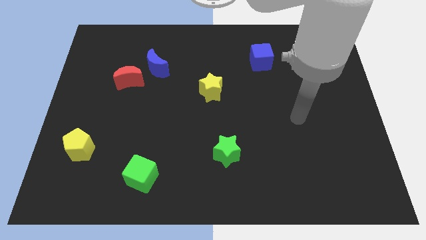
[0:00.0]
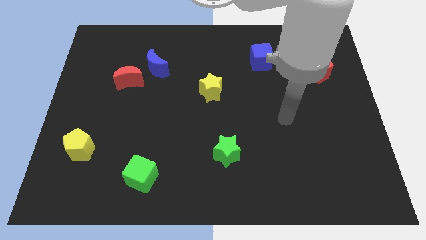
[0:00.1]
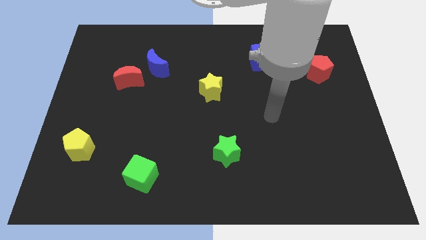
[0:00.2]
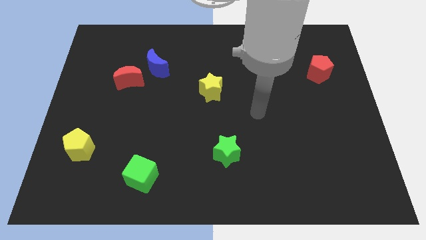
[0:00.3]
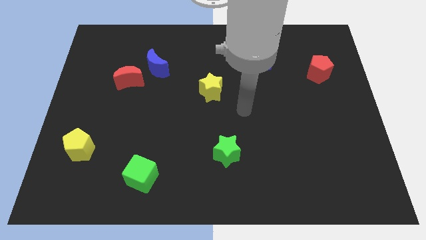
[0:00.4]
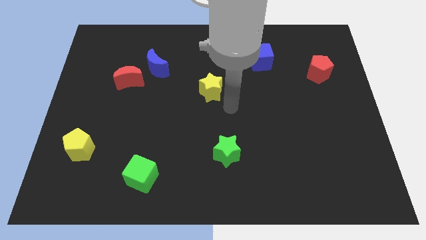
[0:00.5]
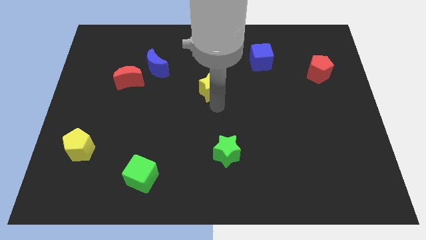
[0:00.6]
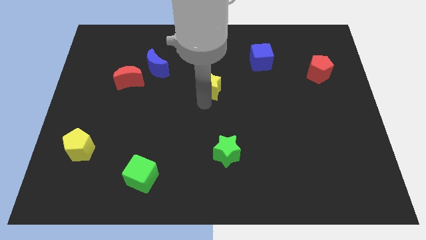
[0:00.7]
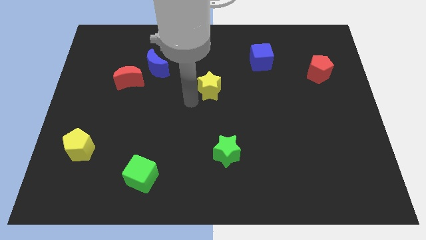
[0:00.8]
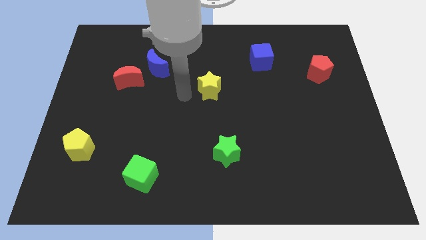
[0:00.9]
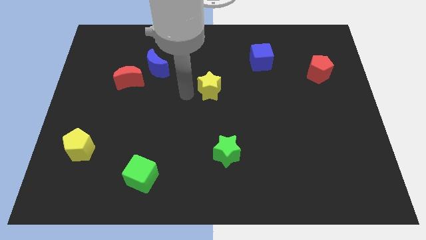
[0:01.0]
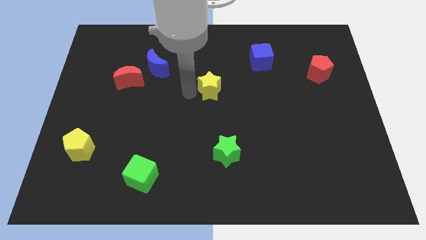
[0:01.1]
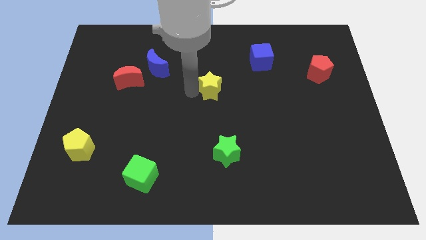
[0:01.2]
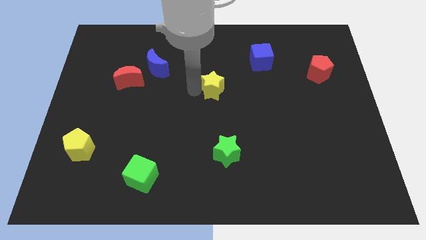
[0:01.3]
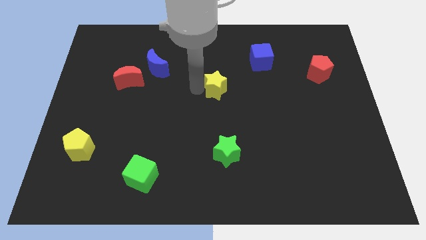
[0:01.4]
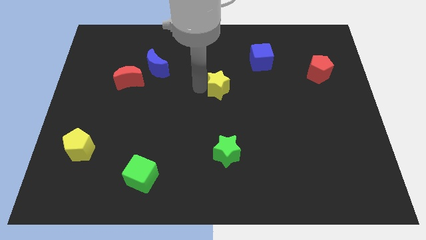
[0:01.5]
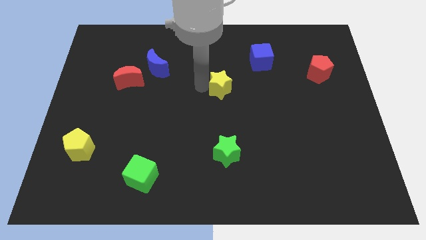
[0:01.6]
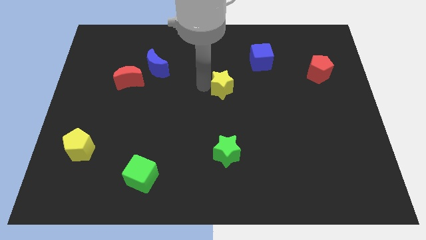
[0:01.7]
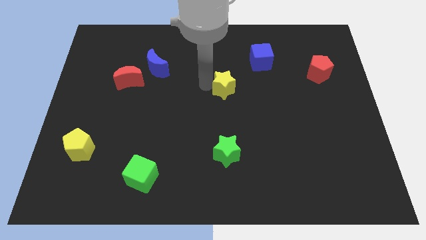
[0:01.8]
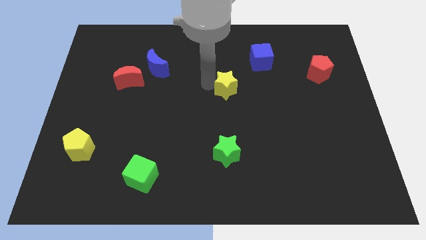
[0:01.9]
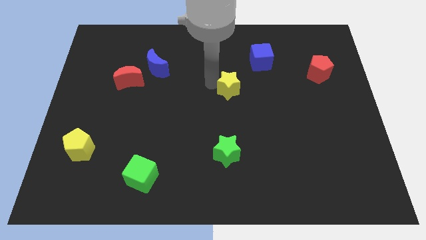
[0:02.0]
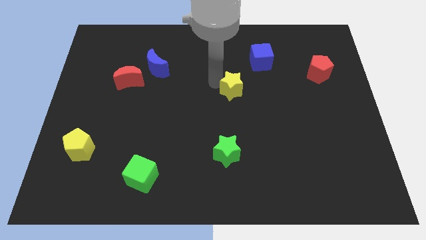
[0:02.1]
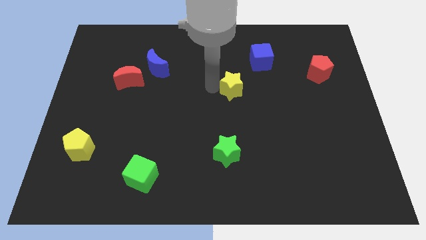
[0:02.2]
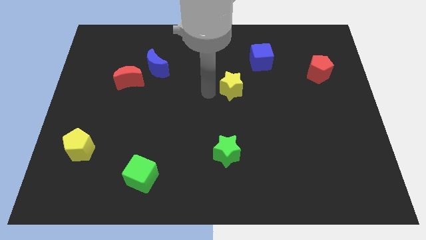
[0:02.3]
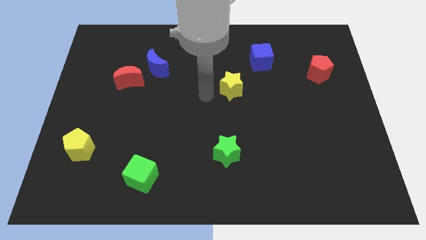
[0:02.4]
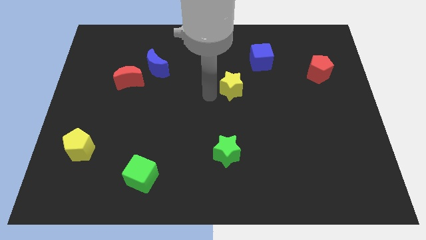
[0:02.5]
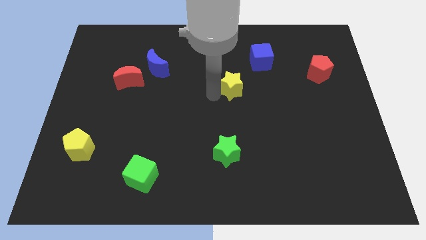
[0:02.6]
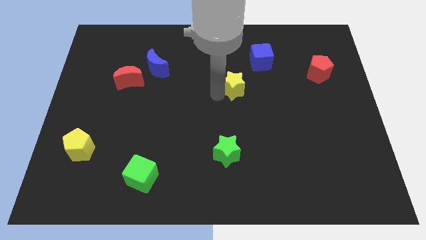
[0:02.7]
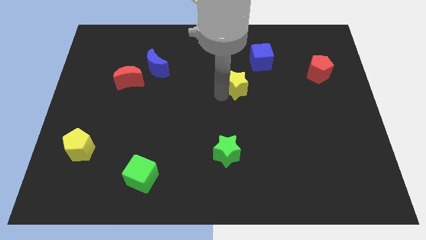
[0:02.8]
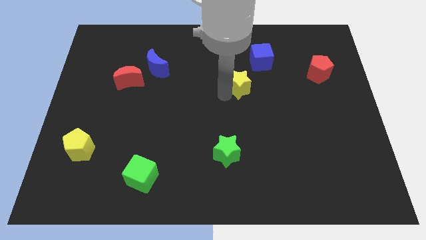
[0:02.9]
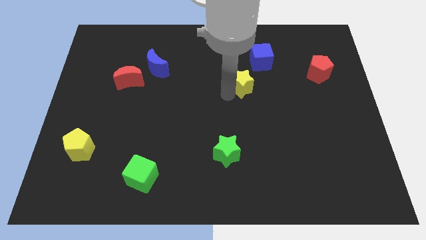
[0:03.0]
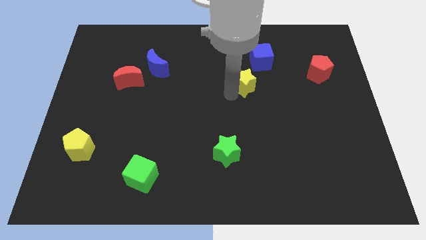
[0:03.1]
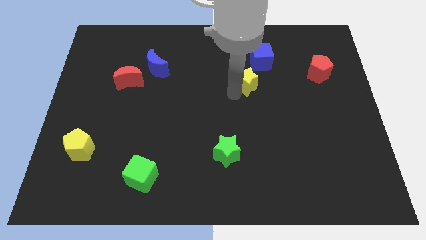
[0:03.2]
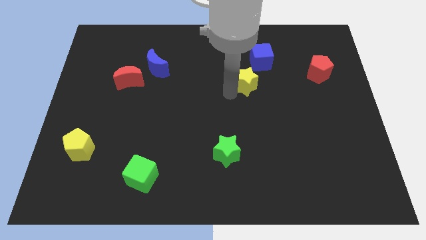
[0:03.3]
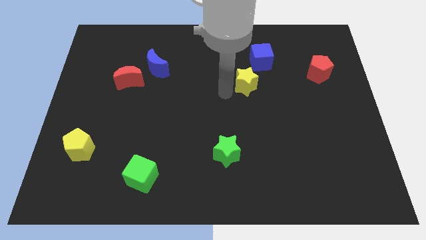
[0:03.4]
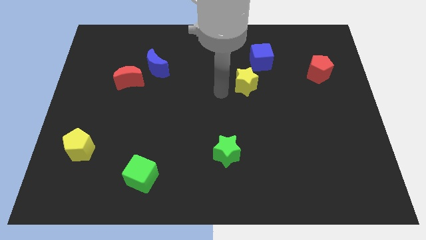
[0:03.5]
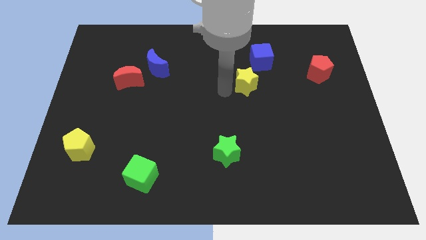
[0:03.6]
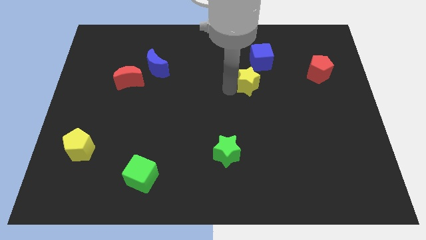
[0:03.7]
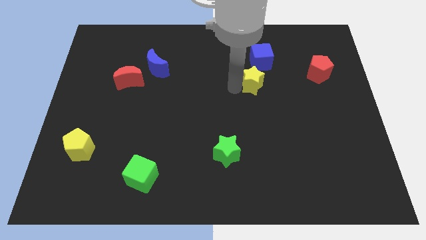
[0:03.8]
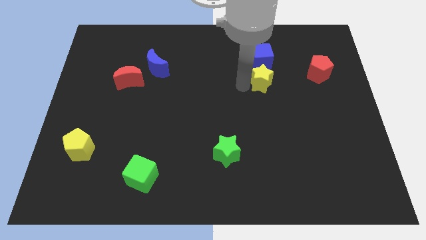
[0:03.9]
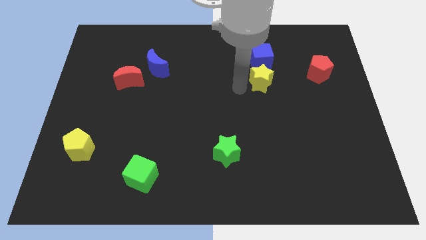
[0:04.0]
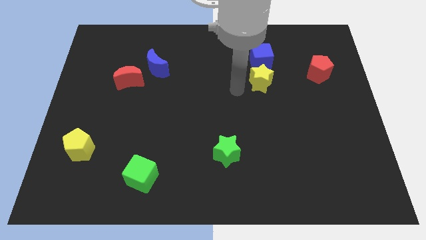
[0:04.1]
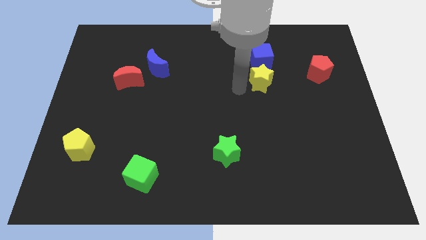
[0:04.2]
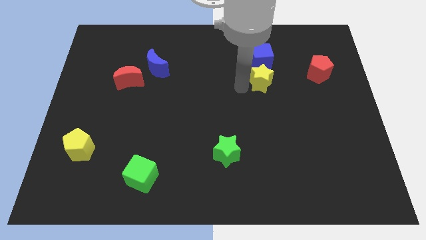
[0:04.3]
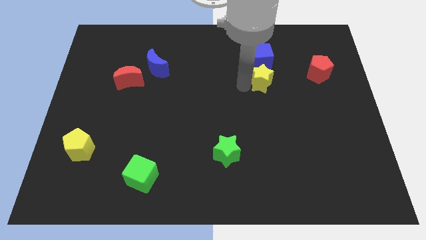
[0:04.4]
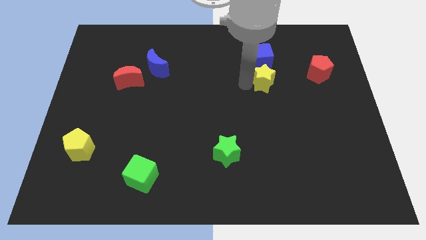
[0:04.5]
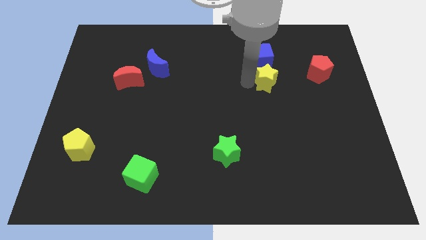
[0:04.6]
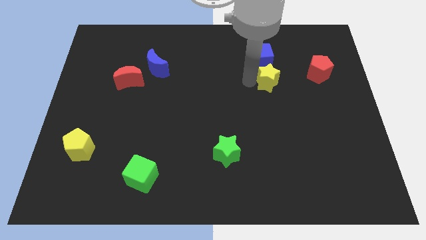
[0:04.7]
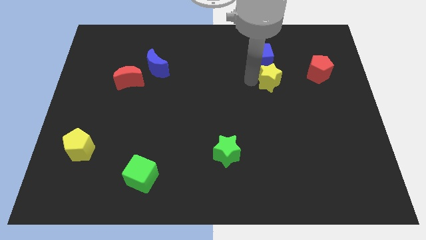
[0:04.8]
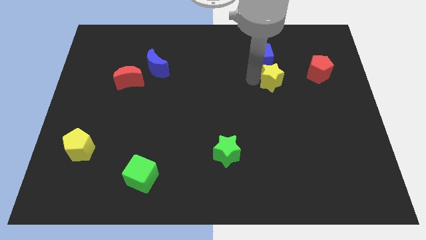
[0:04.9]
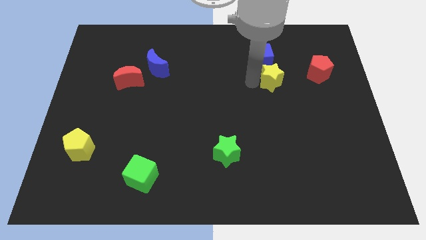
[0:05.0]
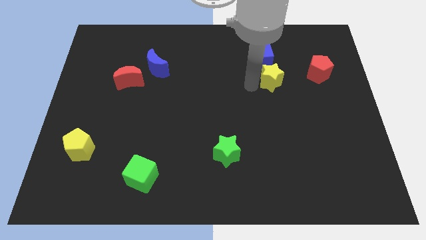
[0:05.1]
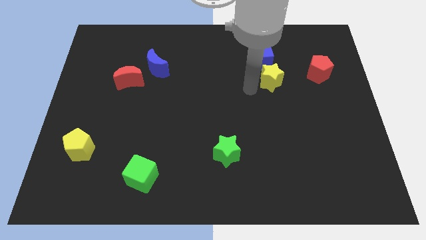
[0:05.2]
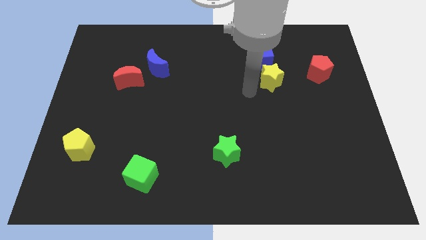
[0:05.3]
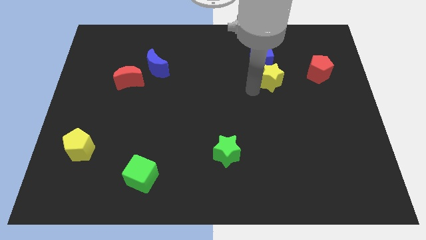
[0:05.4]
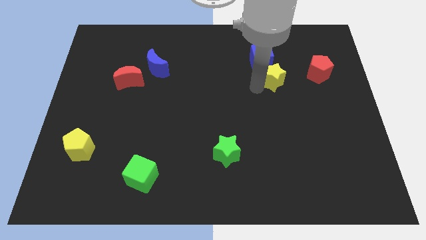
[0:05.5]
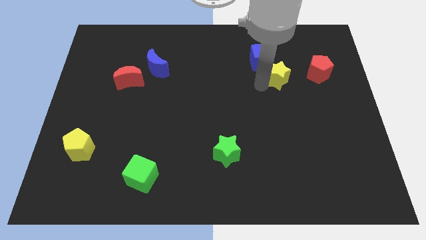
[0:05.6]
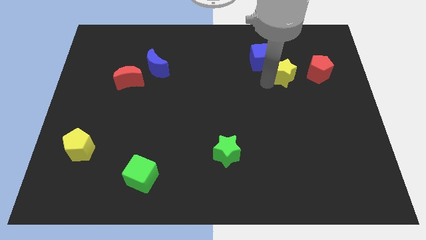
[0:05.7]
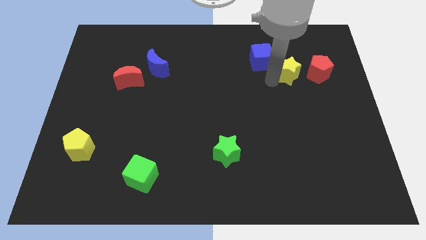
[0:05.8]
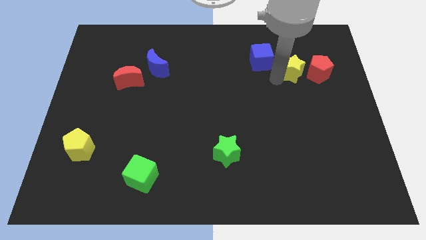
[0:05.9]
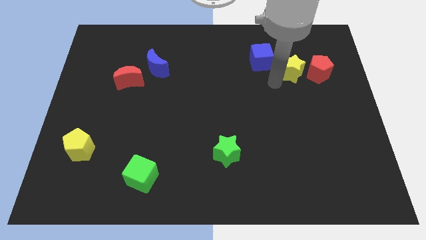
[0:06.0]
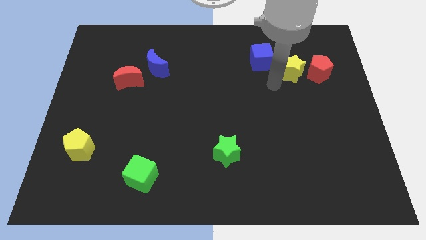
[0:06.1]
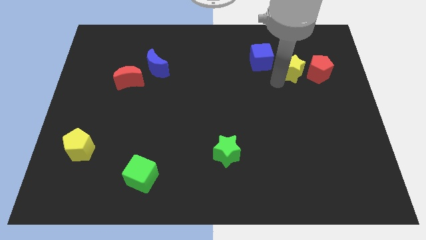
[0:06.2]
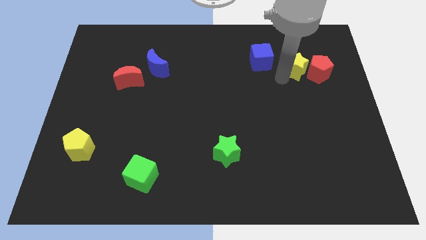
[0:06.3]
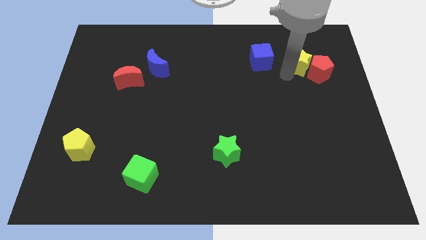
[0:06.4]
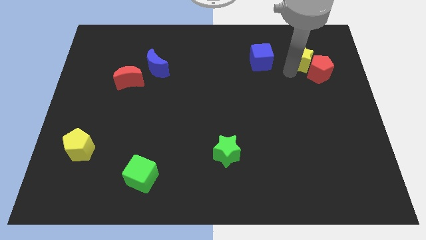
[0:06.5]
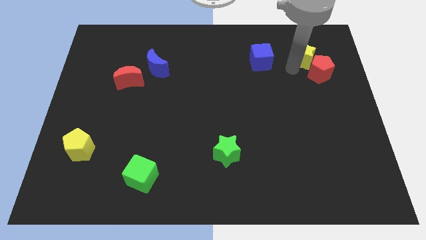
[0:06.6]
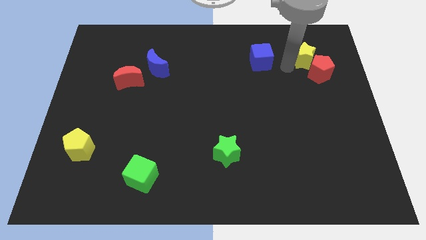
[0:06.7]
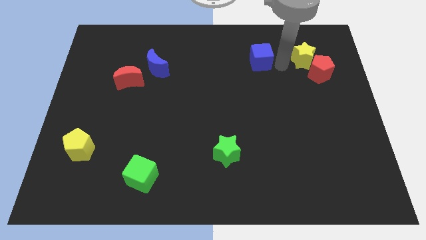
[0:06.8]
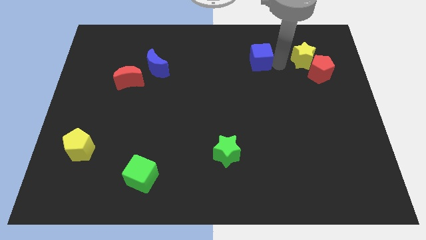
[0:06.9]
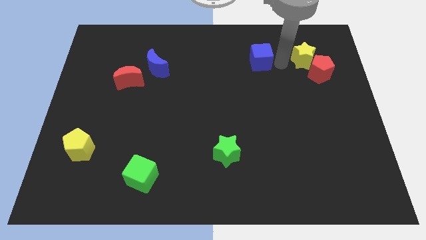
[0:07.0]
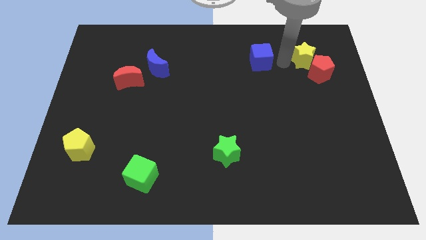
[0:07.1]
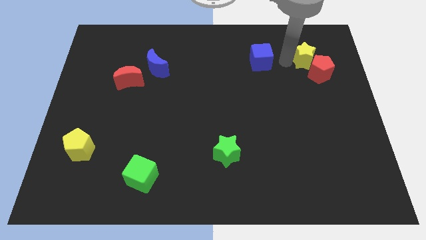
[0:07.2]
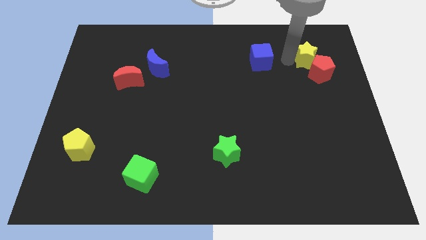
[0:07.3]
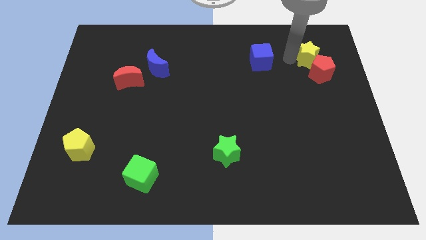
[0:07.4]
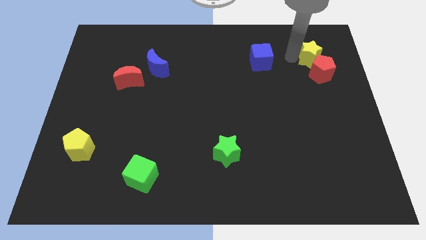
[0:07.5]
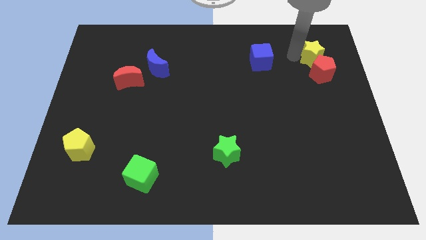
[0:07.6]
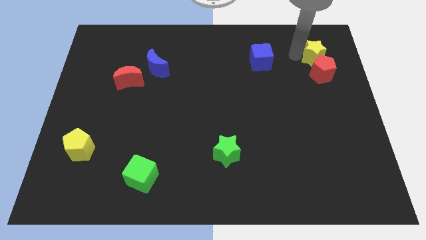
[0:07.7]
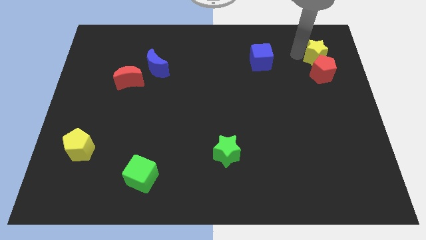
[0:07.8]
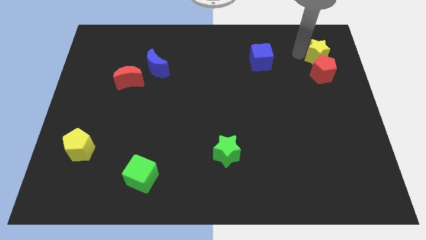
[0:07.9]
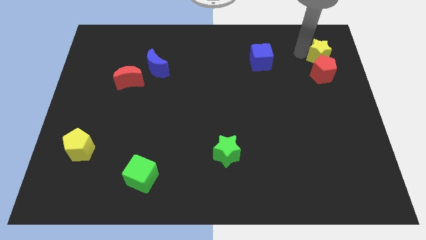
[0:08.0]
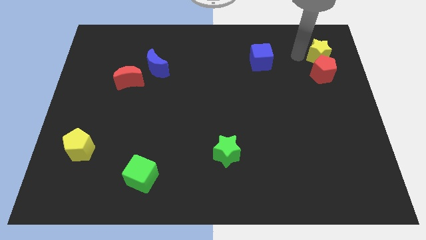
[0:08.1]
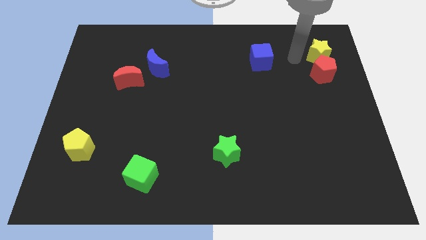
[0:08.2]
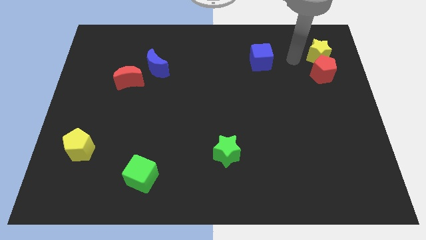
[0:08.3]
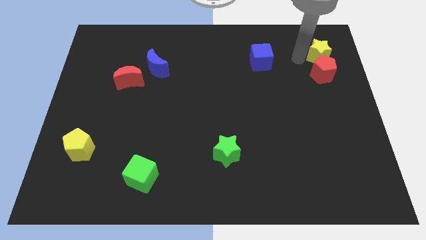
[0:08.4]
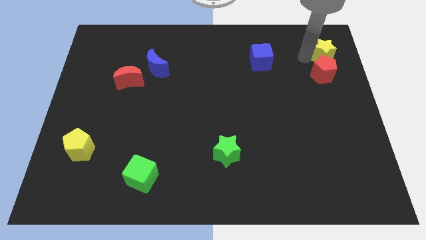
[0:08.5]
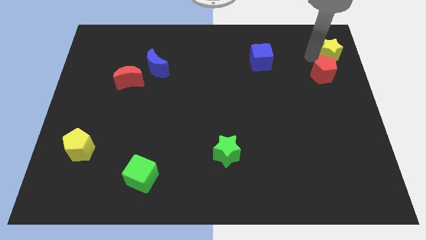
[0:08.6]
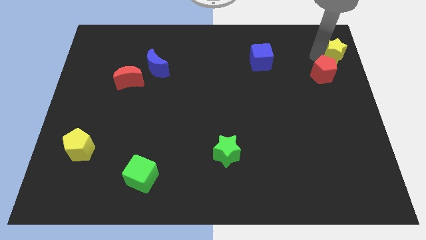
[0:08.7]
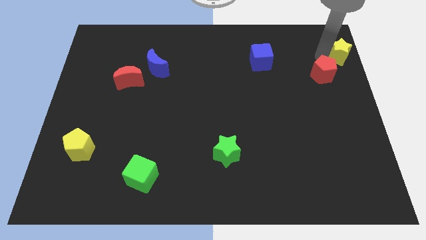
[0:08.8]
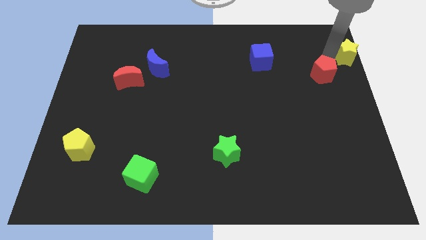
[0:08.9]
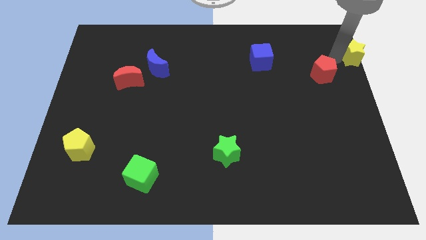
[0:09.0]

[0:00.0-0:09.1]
move the yellow star to the top right corner
